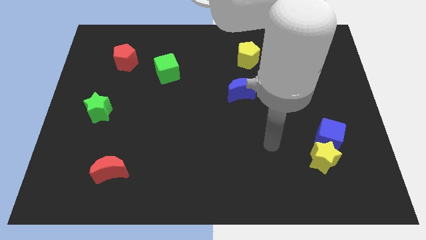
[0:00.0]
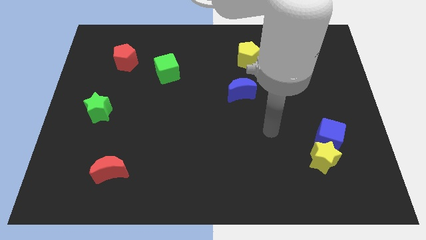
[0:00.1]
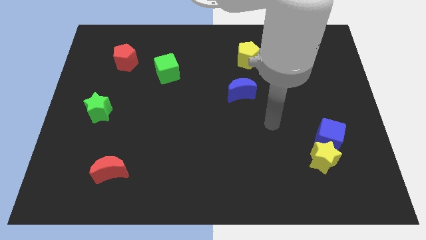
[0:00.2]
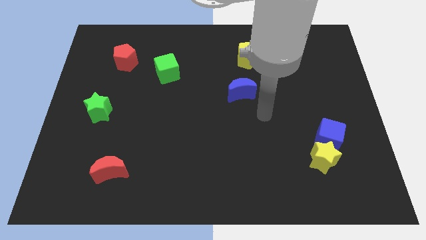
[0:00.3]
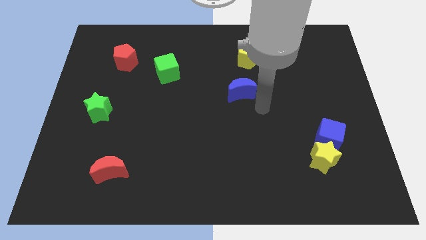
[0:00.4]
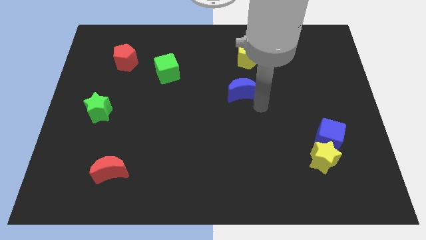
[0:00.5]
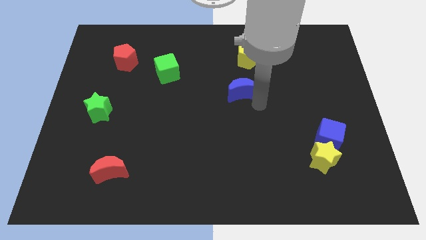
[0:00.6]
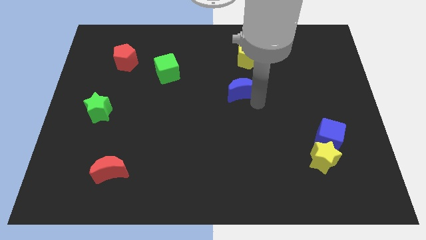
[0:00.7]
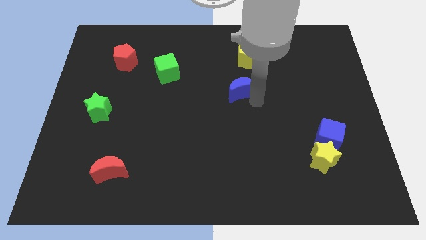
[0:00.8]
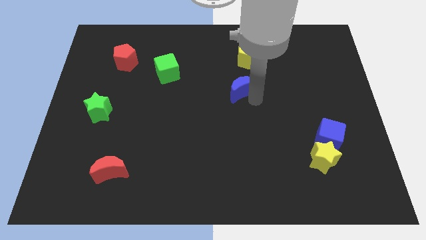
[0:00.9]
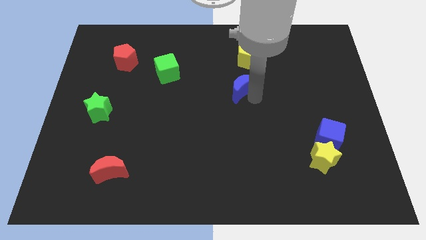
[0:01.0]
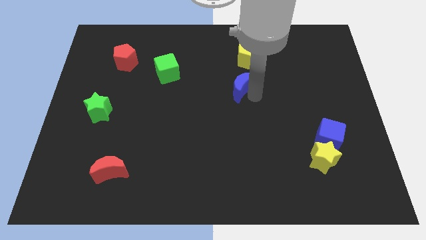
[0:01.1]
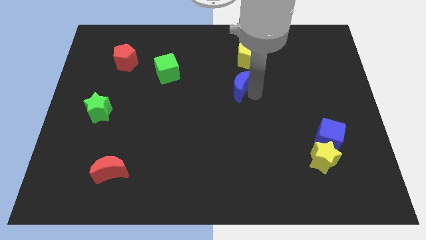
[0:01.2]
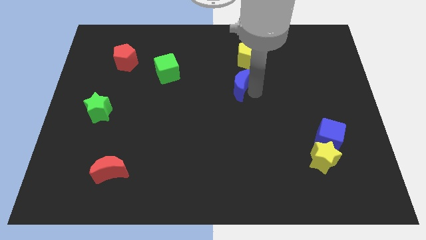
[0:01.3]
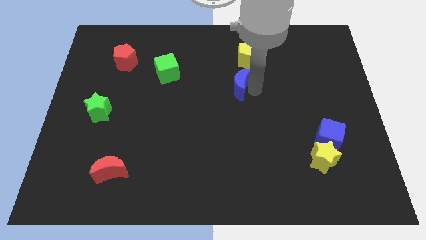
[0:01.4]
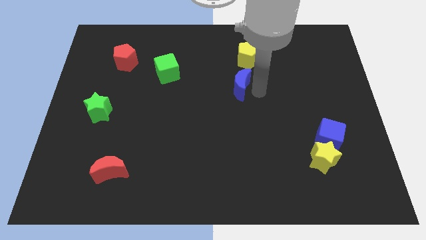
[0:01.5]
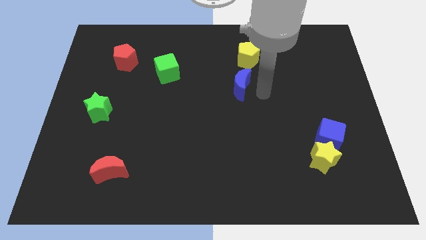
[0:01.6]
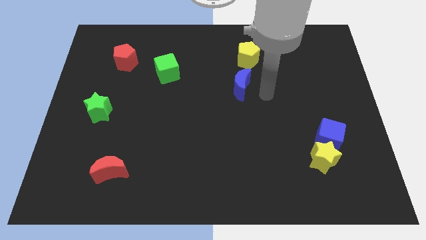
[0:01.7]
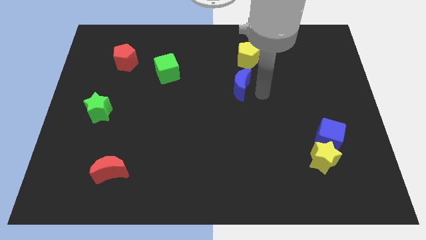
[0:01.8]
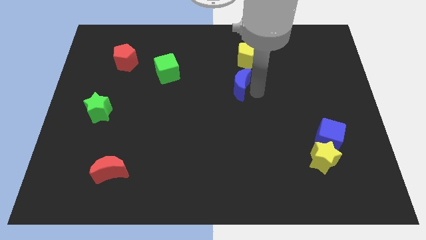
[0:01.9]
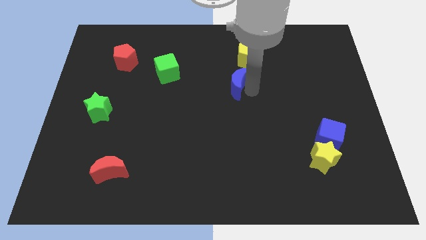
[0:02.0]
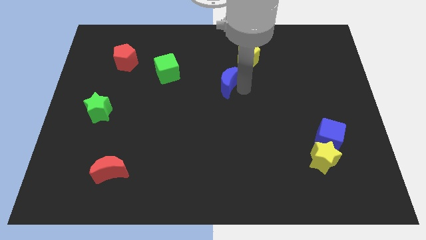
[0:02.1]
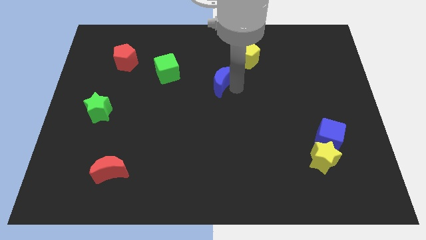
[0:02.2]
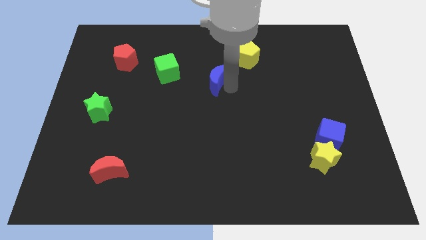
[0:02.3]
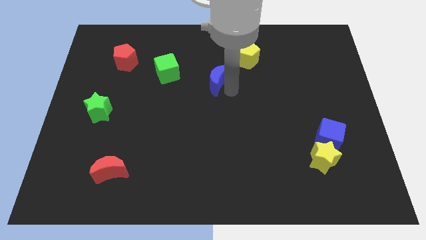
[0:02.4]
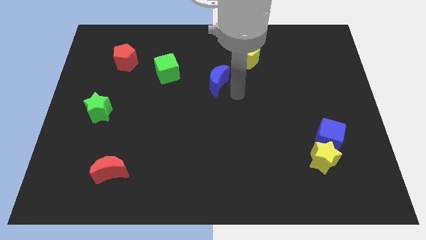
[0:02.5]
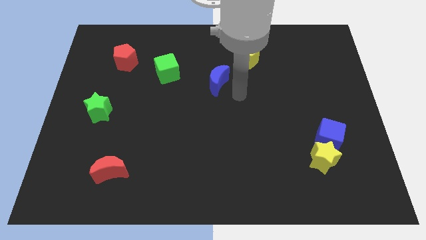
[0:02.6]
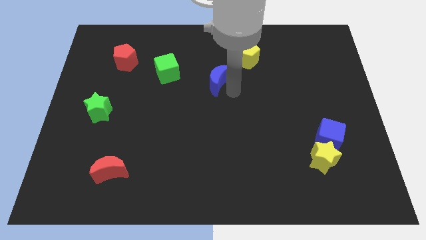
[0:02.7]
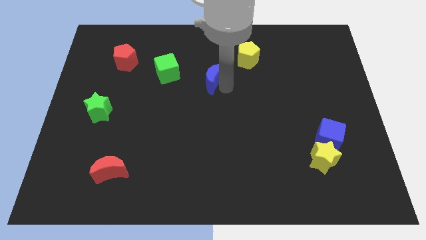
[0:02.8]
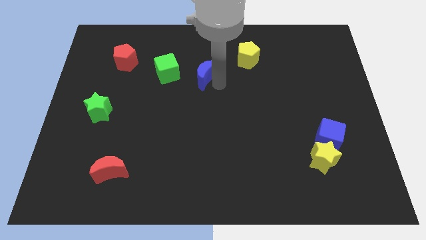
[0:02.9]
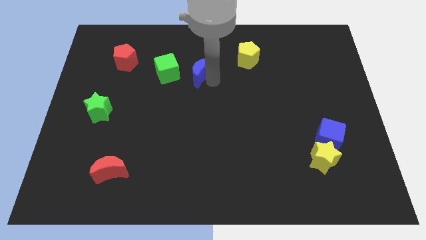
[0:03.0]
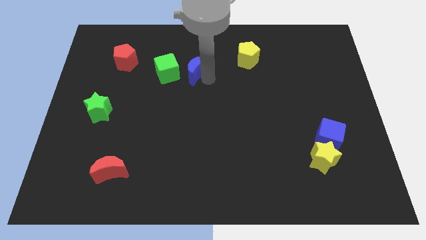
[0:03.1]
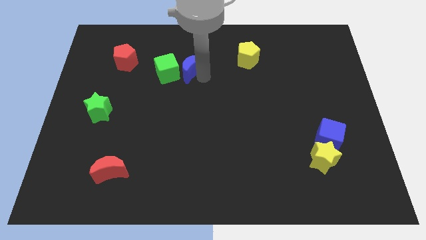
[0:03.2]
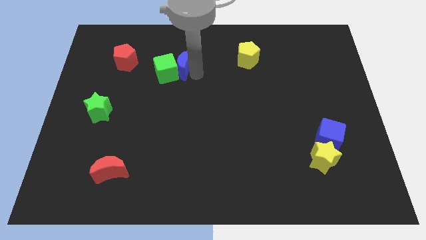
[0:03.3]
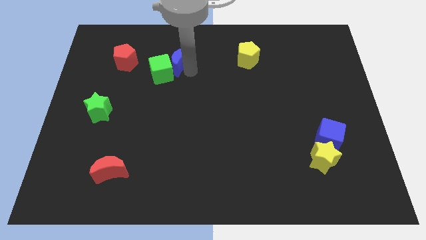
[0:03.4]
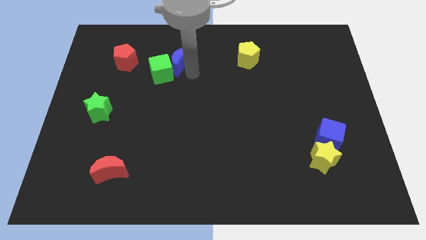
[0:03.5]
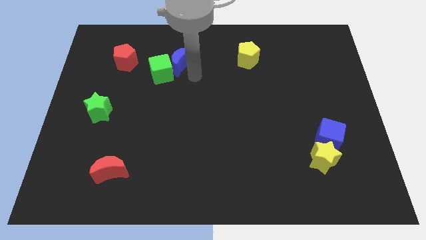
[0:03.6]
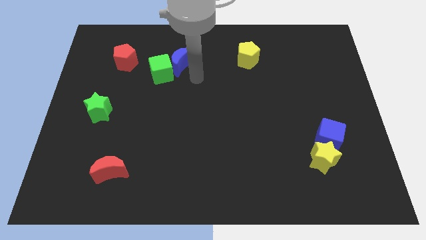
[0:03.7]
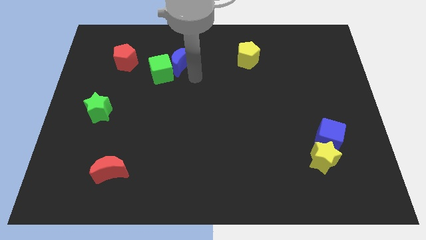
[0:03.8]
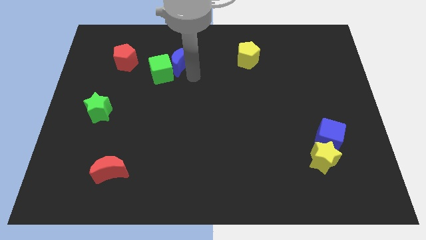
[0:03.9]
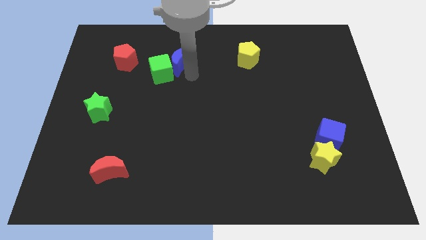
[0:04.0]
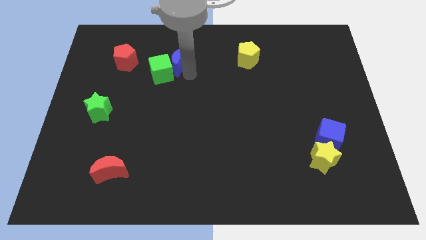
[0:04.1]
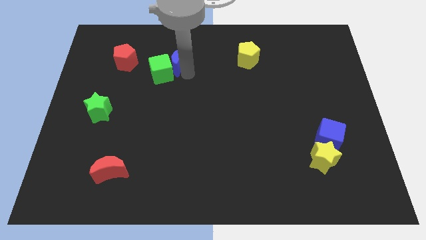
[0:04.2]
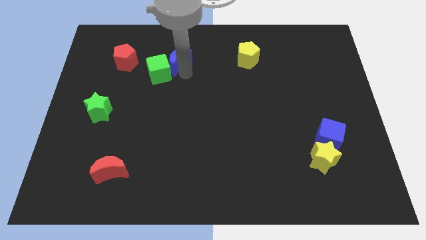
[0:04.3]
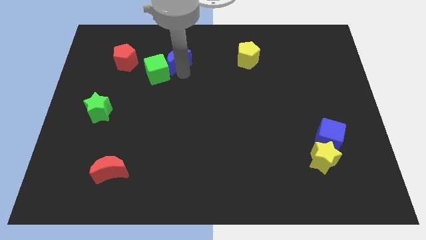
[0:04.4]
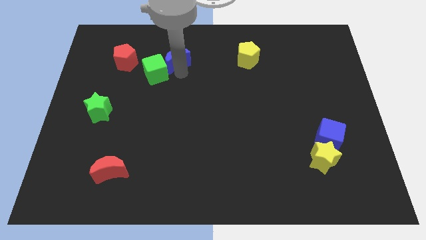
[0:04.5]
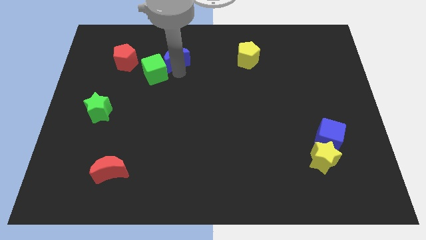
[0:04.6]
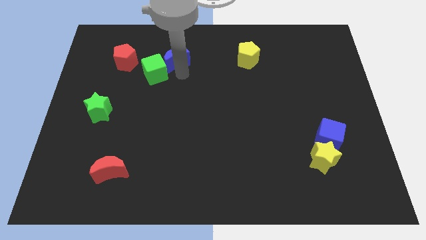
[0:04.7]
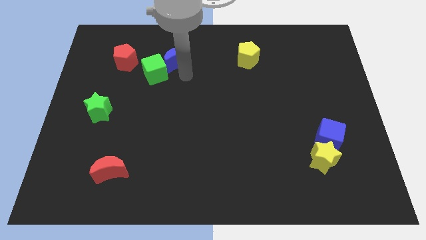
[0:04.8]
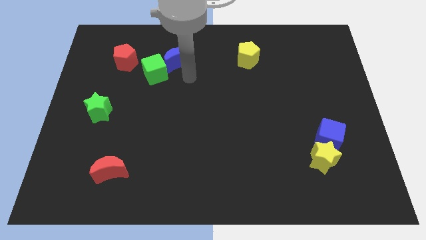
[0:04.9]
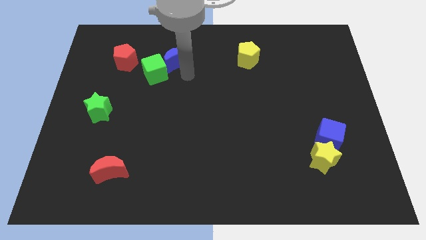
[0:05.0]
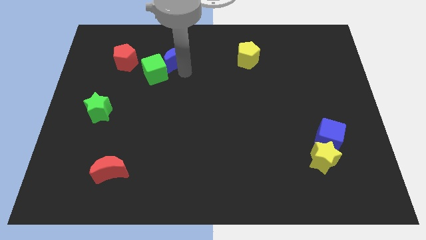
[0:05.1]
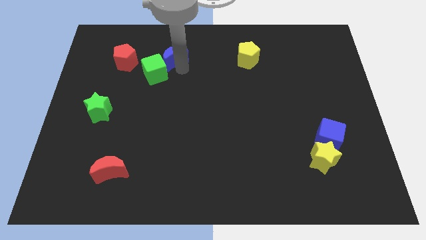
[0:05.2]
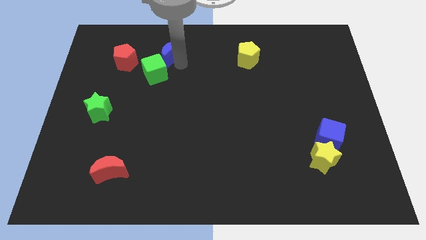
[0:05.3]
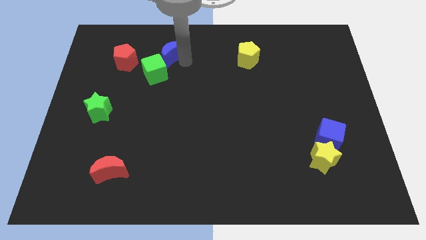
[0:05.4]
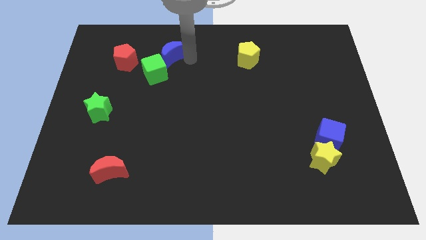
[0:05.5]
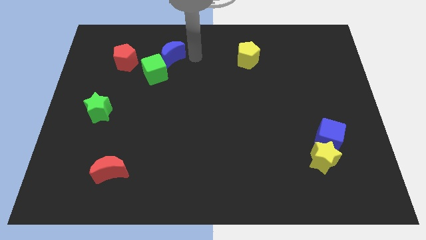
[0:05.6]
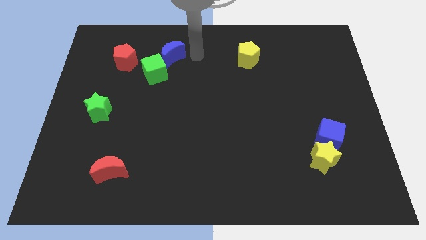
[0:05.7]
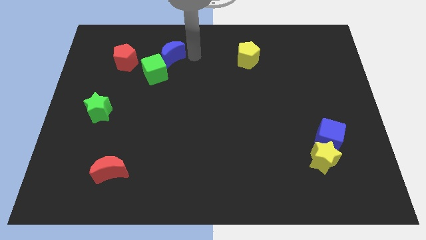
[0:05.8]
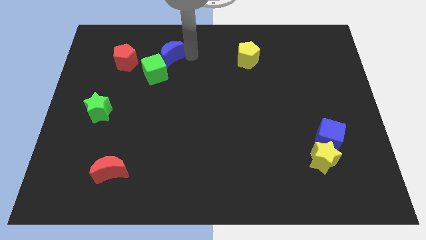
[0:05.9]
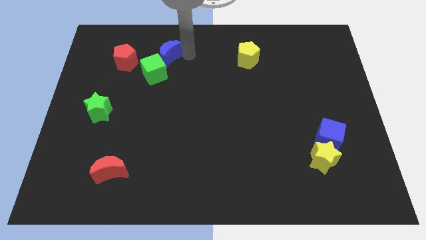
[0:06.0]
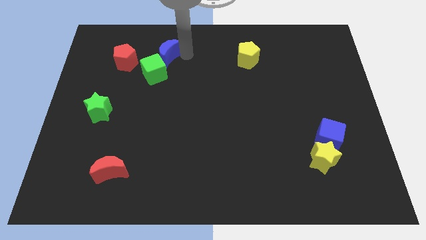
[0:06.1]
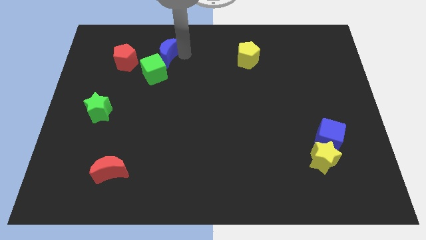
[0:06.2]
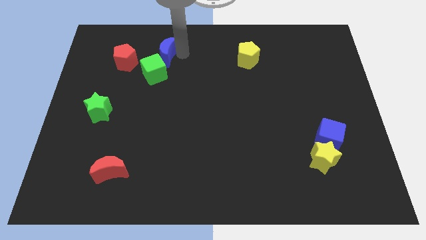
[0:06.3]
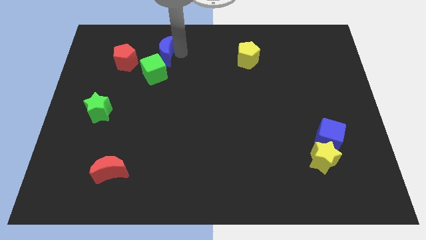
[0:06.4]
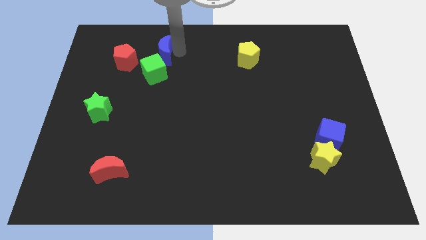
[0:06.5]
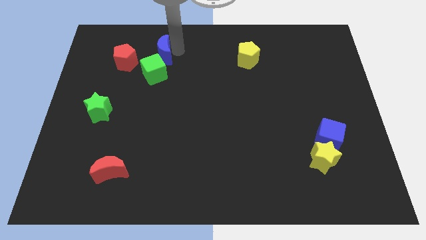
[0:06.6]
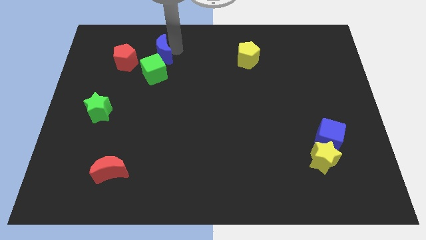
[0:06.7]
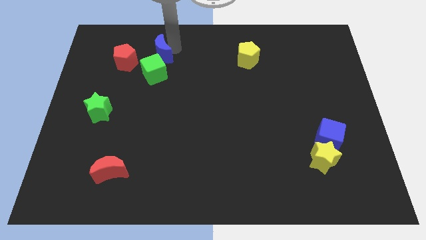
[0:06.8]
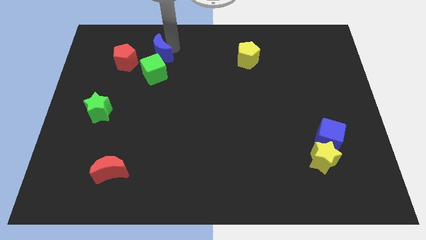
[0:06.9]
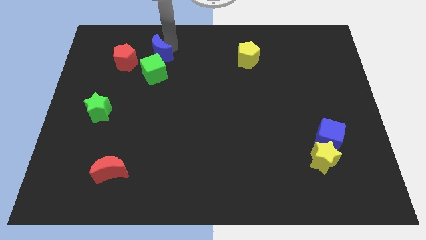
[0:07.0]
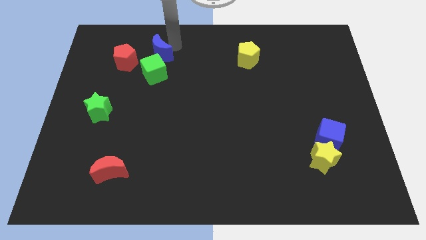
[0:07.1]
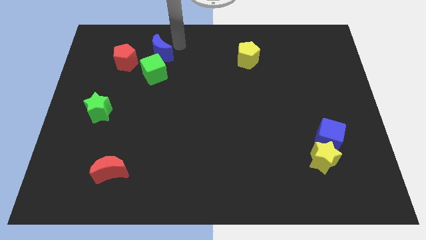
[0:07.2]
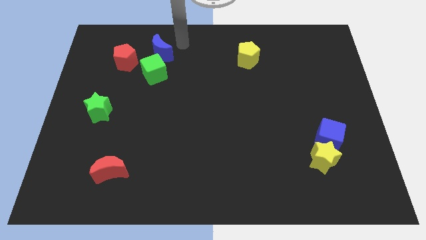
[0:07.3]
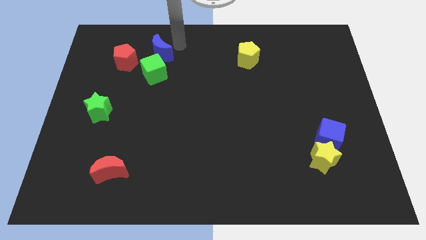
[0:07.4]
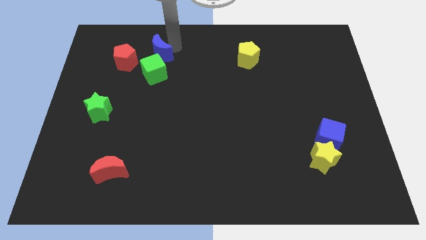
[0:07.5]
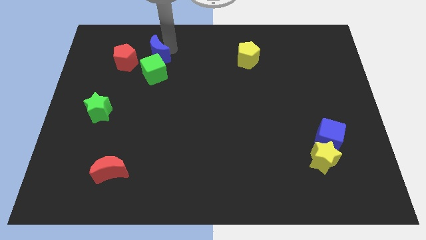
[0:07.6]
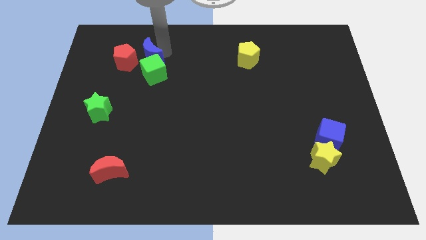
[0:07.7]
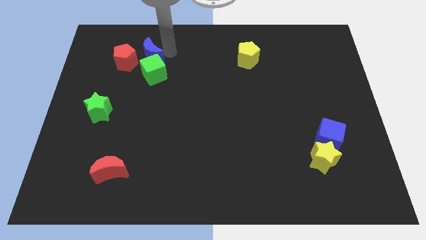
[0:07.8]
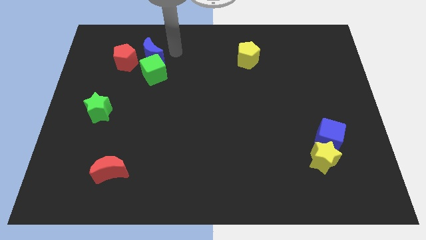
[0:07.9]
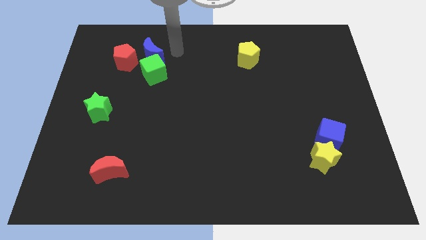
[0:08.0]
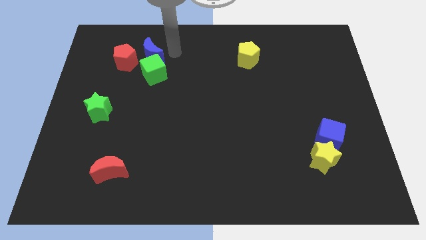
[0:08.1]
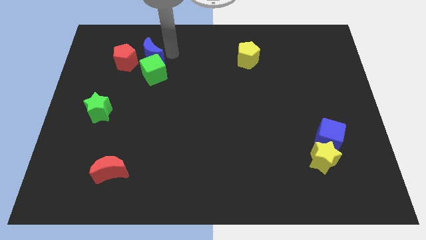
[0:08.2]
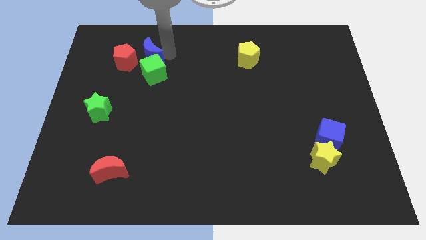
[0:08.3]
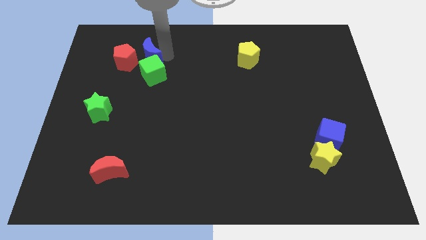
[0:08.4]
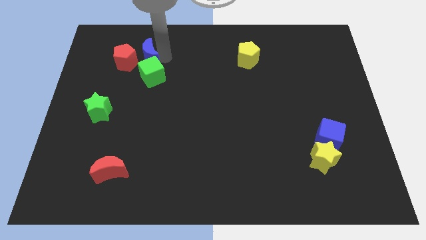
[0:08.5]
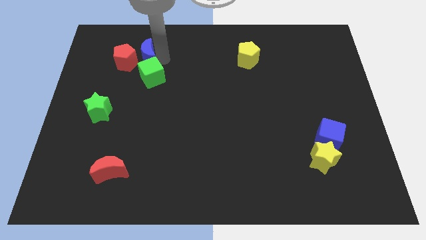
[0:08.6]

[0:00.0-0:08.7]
move the blue moon close to the red pentagon
